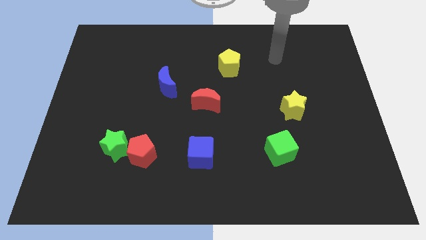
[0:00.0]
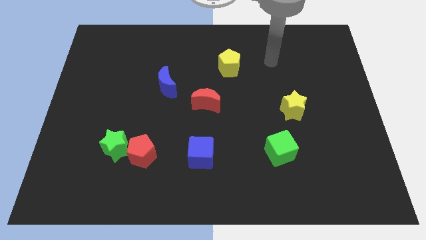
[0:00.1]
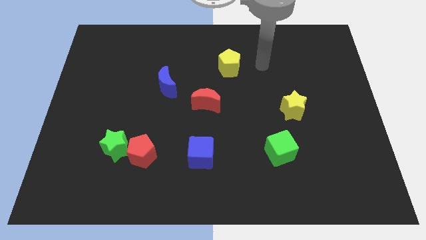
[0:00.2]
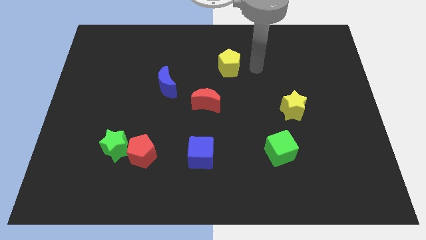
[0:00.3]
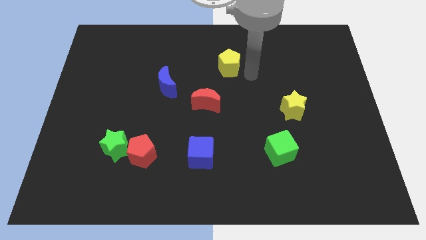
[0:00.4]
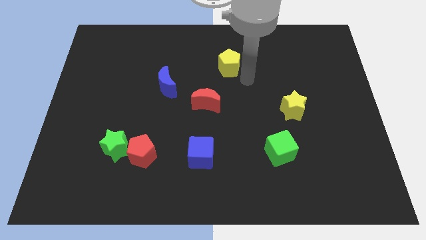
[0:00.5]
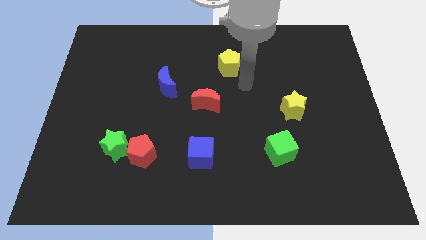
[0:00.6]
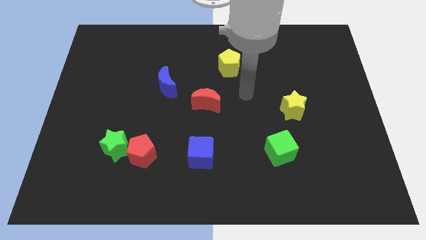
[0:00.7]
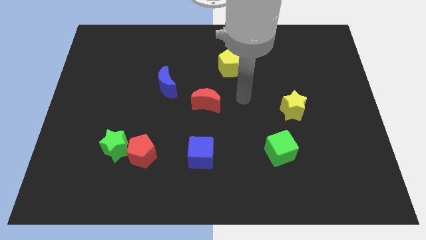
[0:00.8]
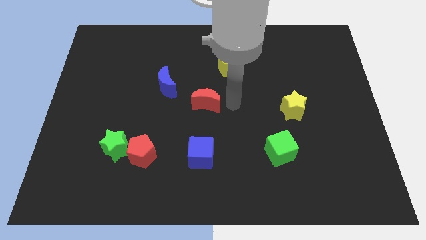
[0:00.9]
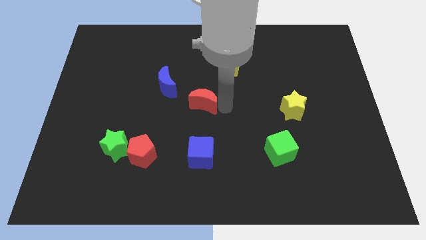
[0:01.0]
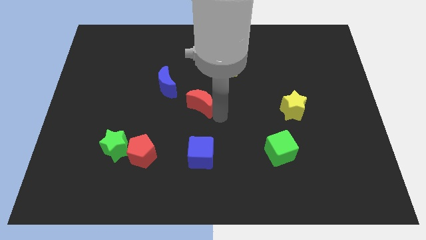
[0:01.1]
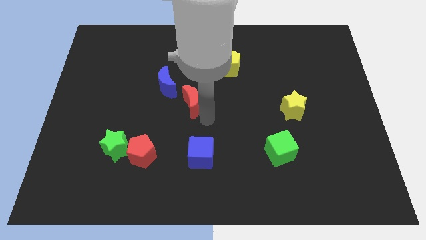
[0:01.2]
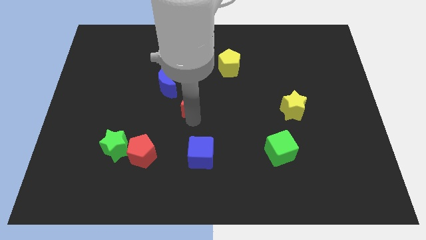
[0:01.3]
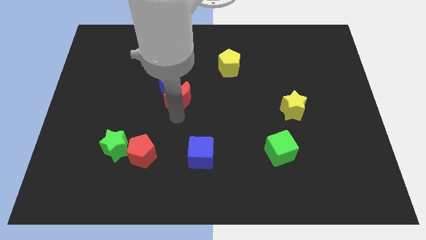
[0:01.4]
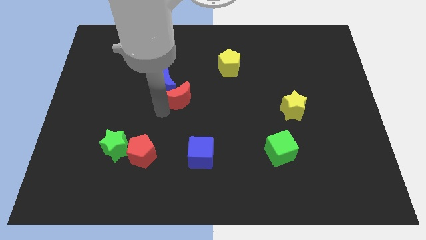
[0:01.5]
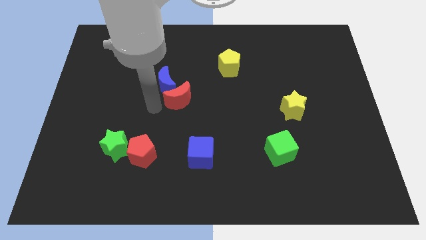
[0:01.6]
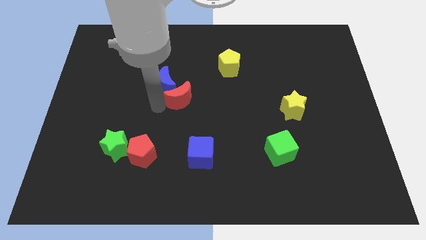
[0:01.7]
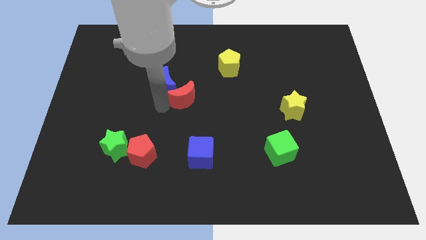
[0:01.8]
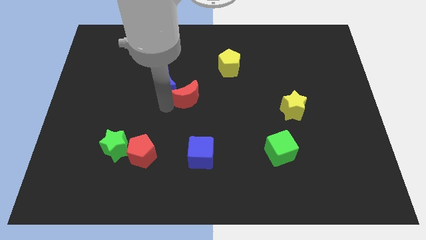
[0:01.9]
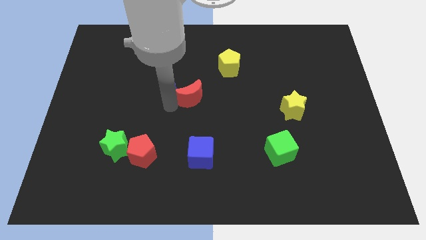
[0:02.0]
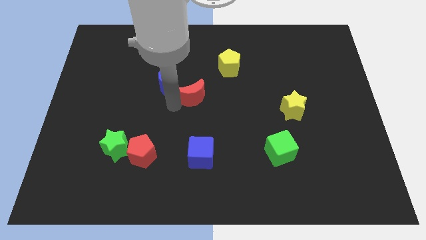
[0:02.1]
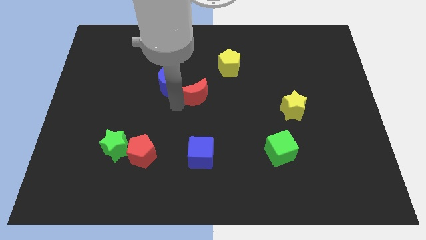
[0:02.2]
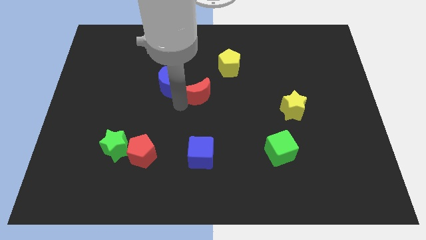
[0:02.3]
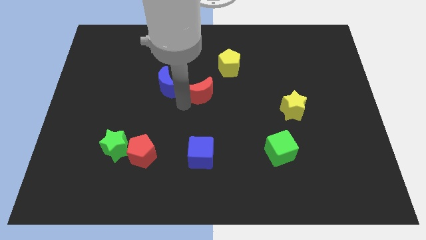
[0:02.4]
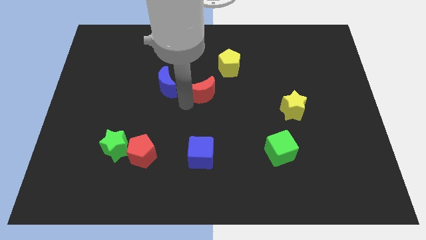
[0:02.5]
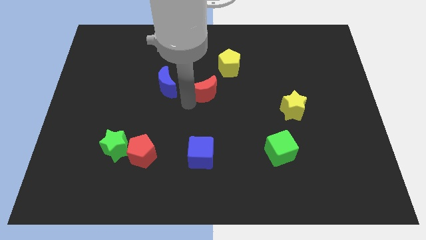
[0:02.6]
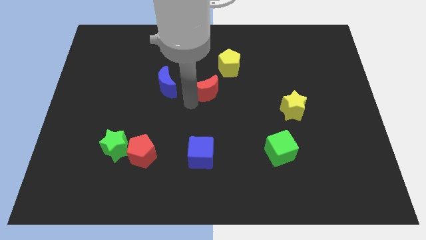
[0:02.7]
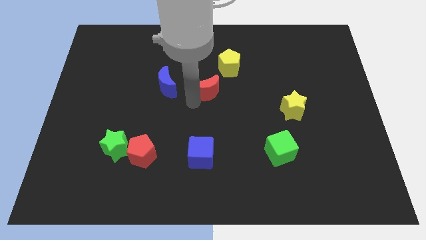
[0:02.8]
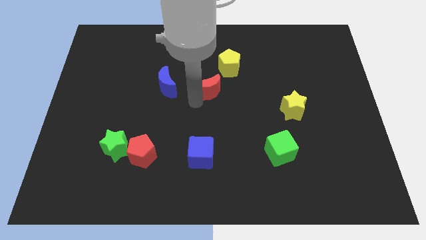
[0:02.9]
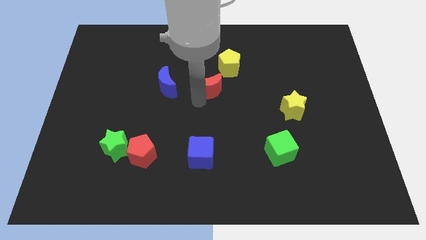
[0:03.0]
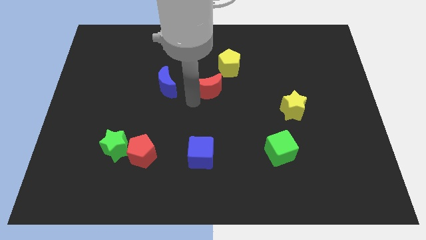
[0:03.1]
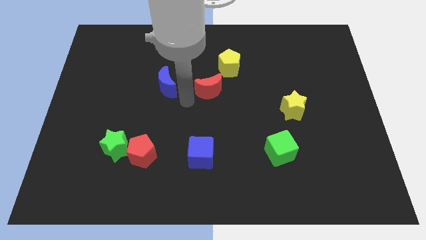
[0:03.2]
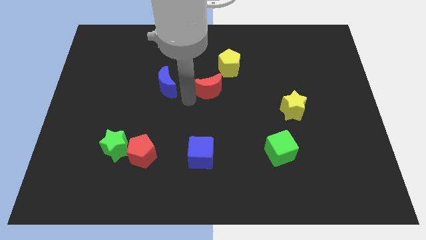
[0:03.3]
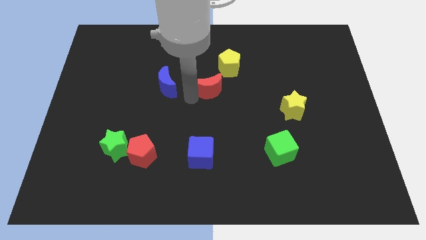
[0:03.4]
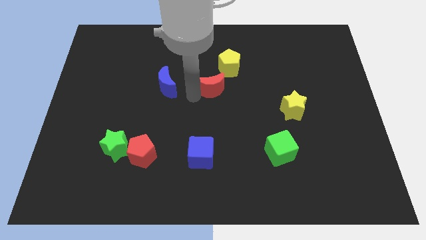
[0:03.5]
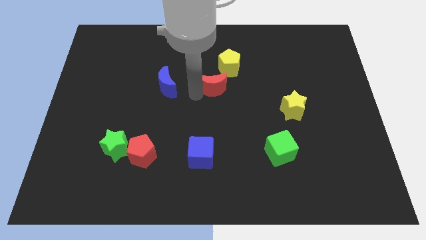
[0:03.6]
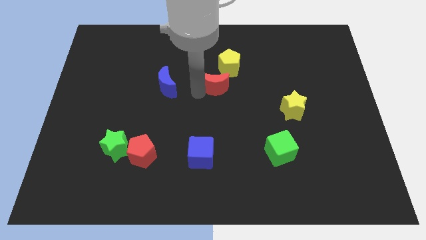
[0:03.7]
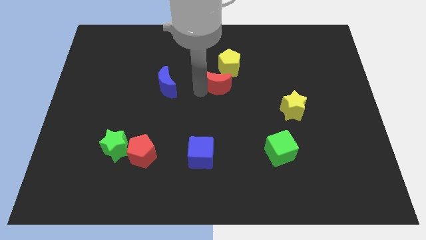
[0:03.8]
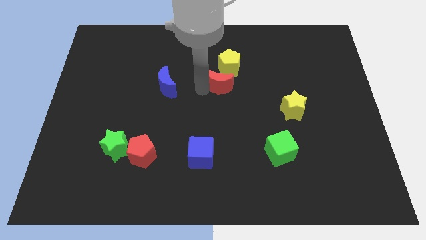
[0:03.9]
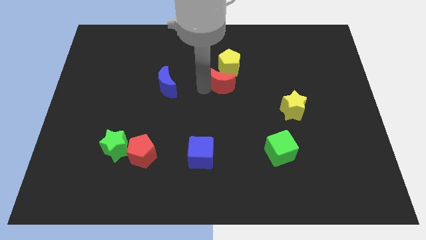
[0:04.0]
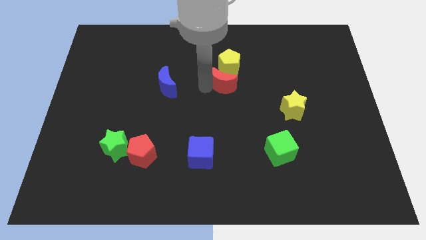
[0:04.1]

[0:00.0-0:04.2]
slightly move the red moon up and right diagonally

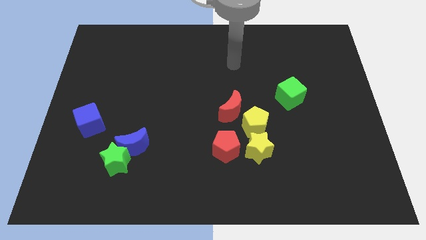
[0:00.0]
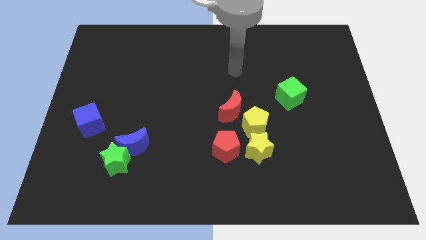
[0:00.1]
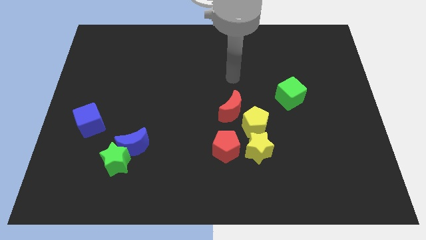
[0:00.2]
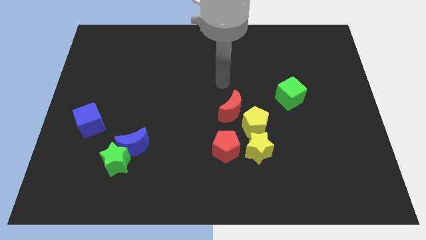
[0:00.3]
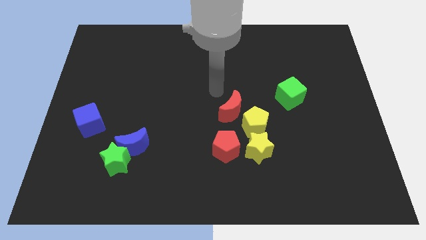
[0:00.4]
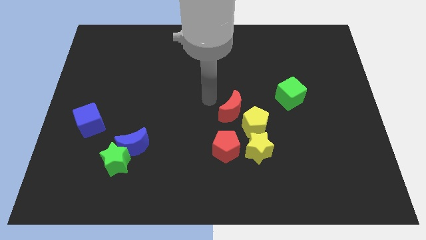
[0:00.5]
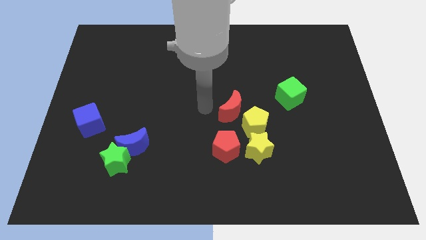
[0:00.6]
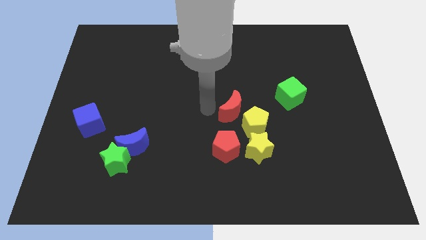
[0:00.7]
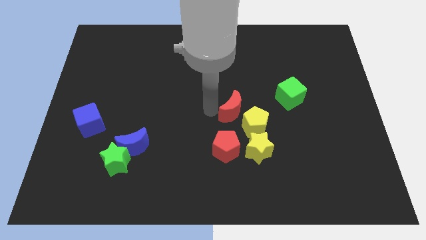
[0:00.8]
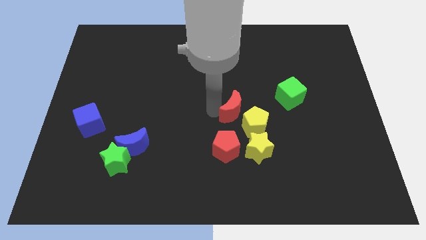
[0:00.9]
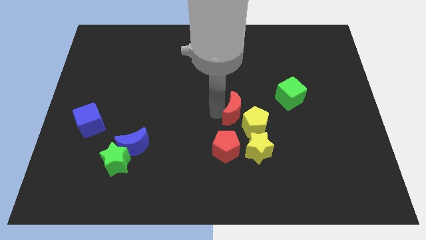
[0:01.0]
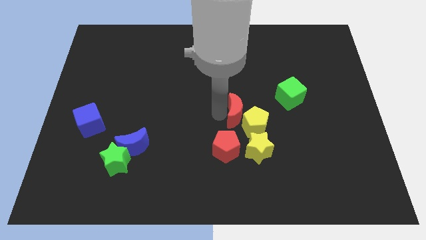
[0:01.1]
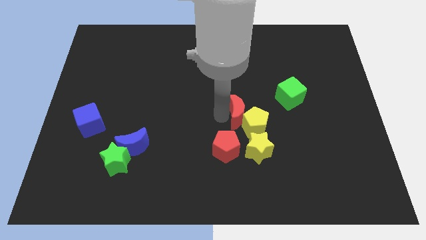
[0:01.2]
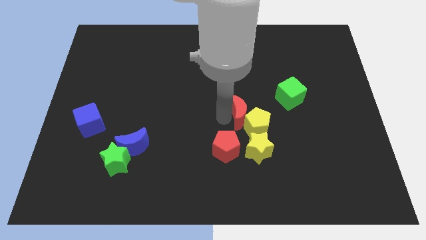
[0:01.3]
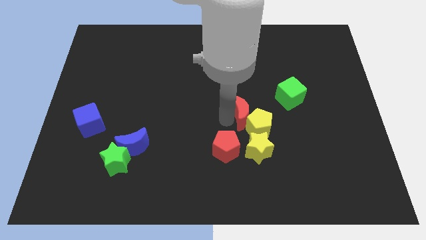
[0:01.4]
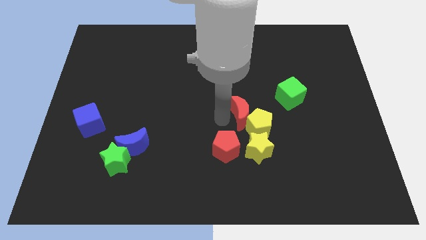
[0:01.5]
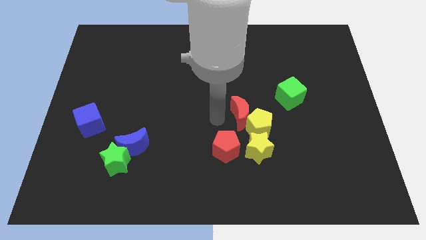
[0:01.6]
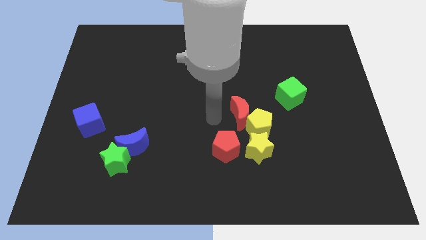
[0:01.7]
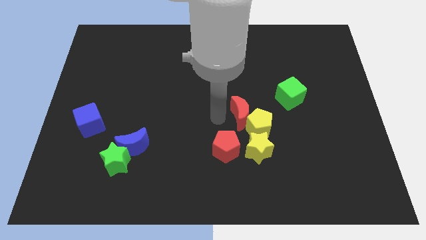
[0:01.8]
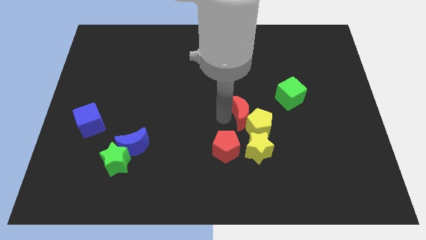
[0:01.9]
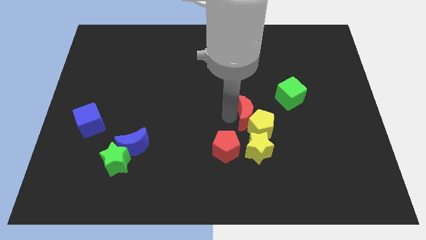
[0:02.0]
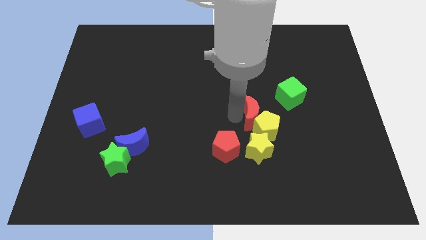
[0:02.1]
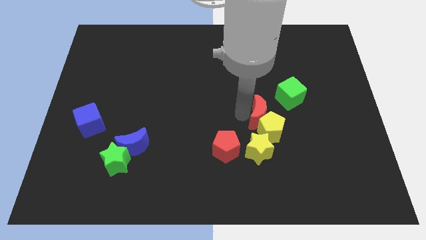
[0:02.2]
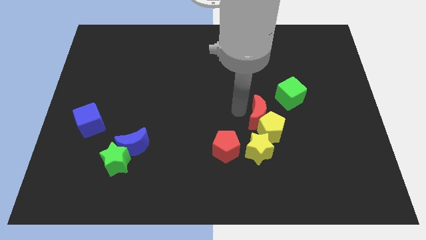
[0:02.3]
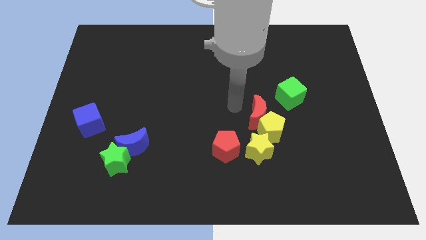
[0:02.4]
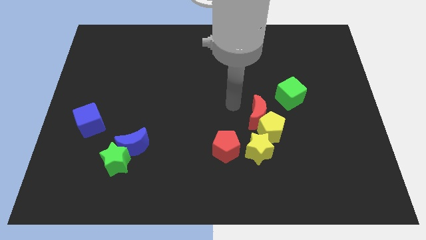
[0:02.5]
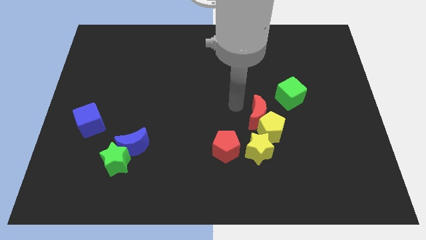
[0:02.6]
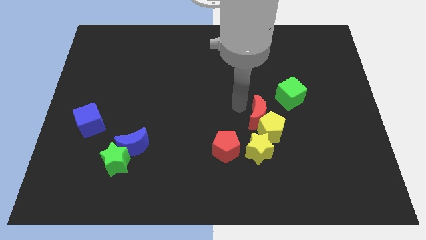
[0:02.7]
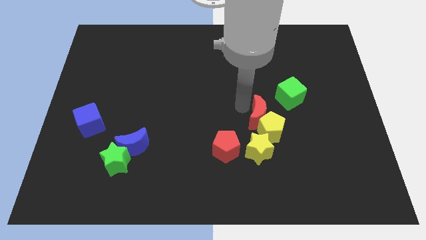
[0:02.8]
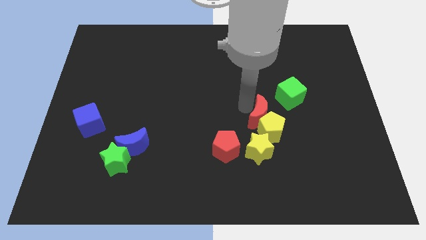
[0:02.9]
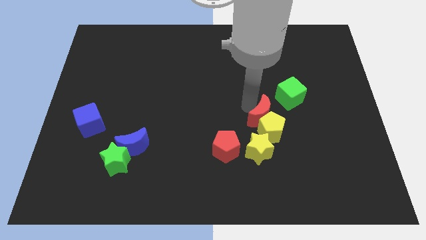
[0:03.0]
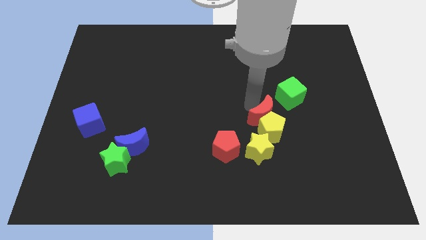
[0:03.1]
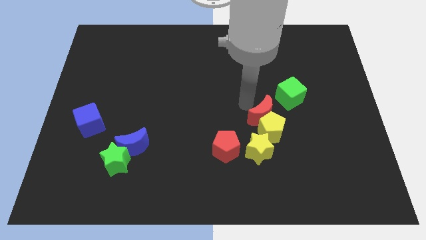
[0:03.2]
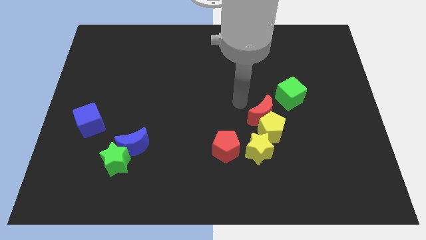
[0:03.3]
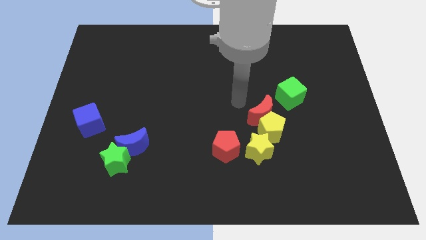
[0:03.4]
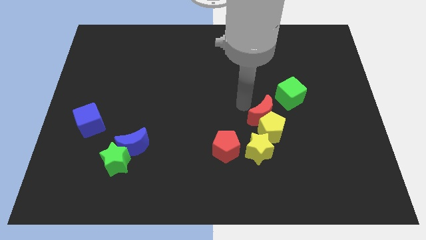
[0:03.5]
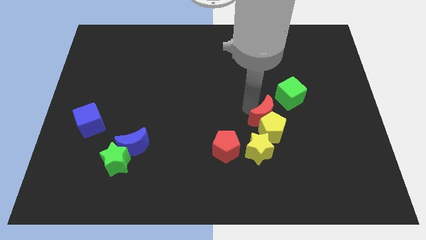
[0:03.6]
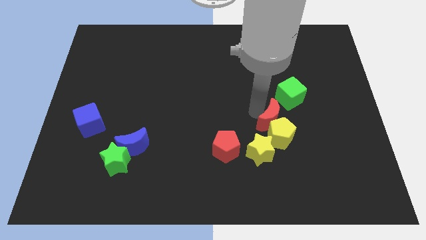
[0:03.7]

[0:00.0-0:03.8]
push the red moon a little bit down and then right

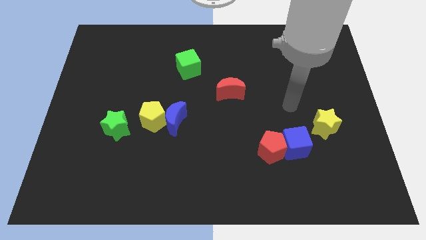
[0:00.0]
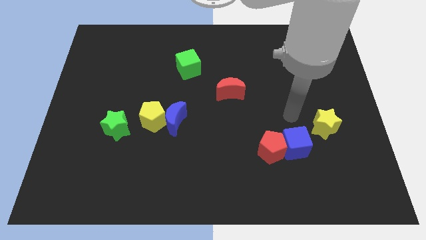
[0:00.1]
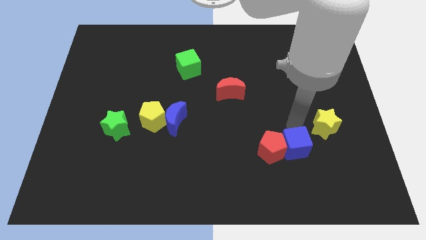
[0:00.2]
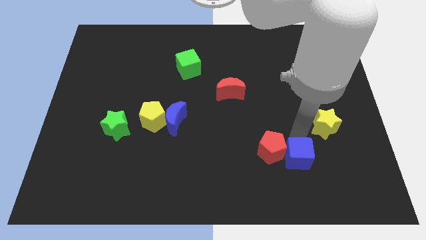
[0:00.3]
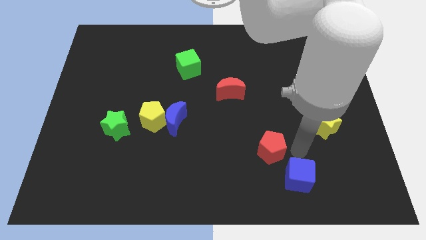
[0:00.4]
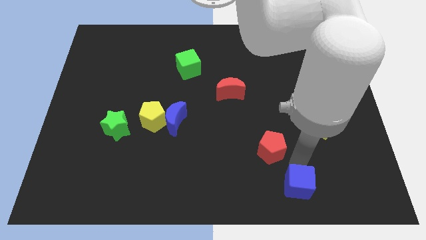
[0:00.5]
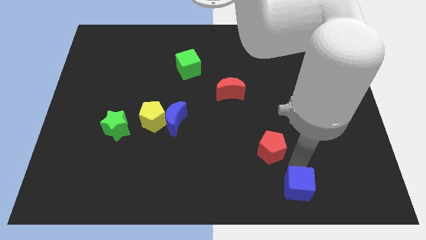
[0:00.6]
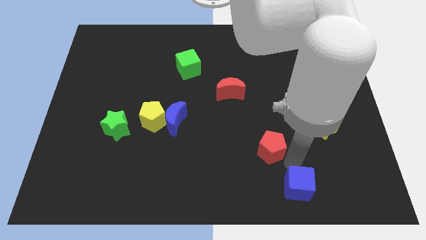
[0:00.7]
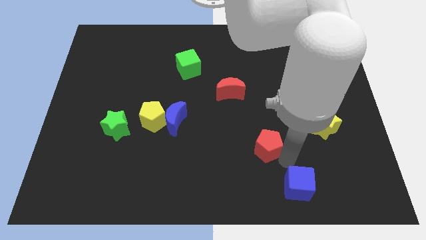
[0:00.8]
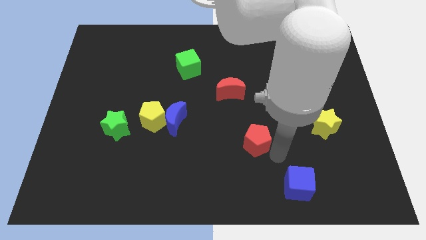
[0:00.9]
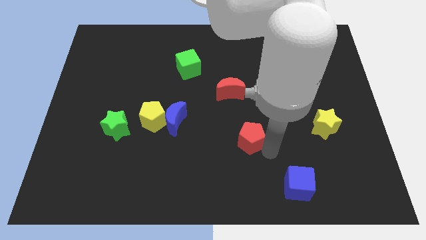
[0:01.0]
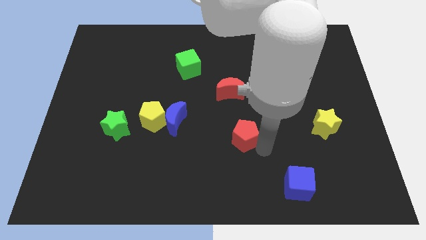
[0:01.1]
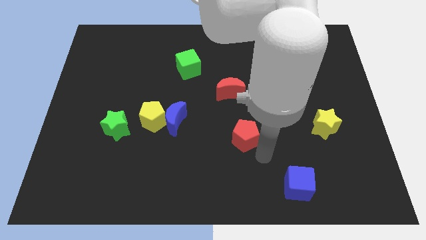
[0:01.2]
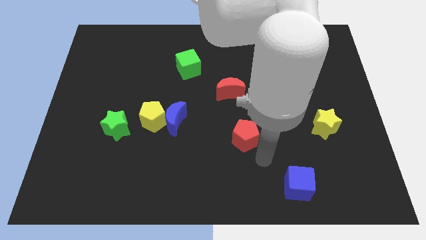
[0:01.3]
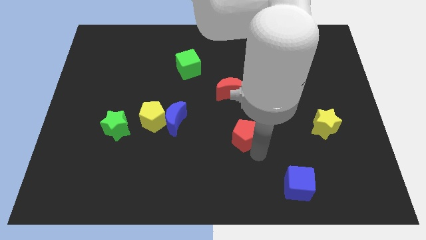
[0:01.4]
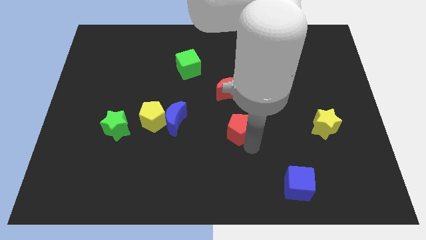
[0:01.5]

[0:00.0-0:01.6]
push the red pentagon a bit diagonally upwards and to the left
